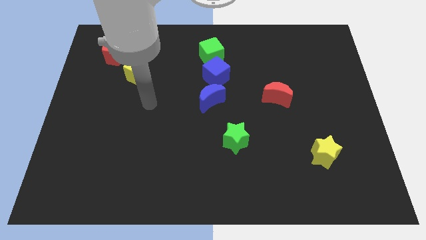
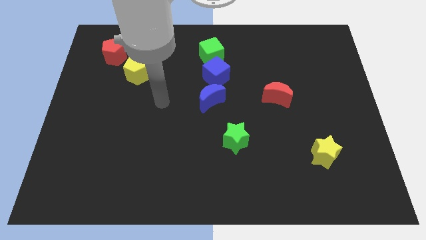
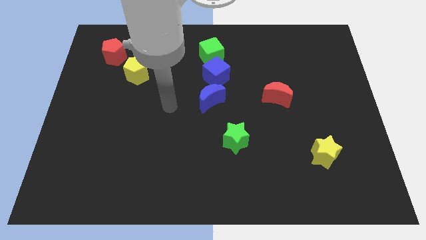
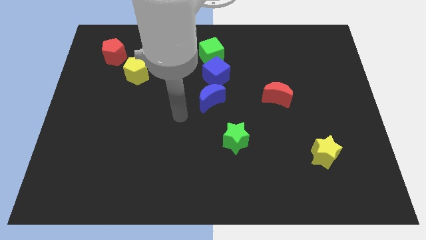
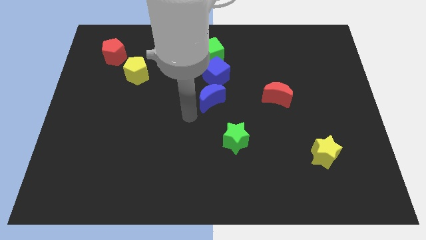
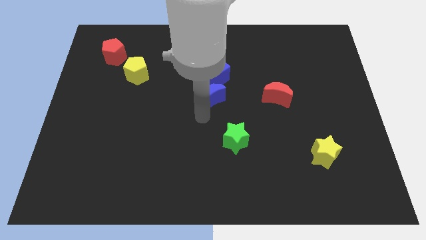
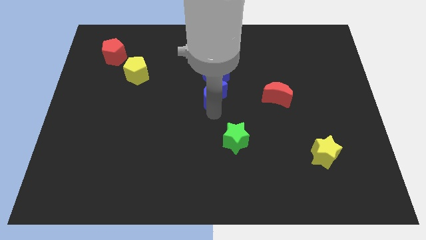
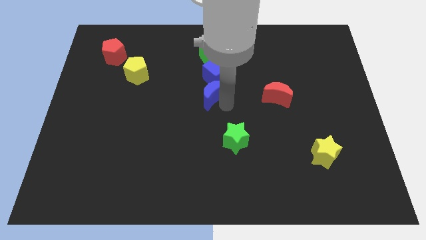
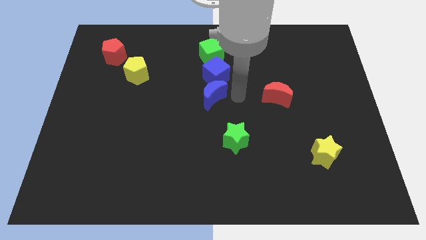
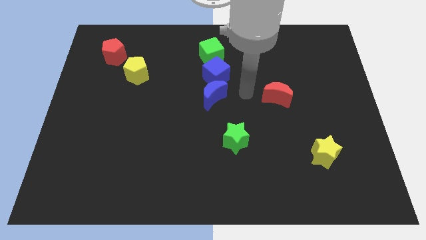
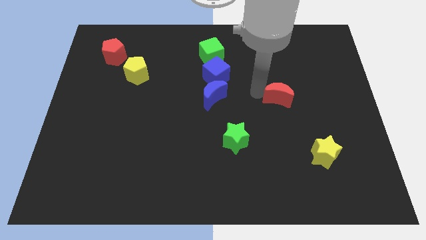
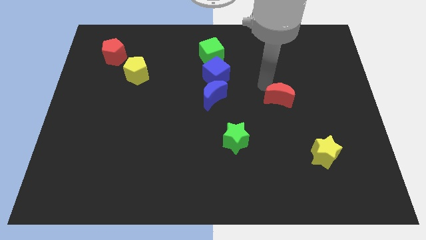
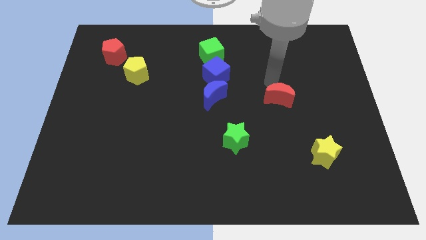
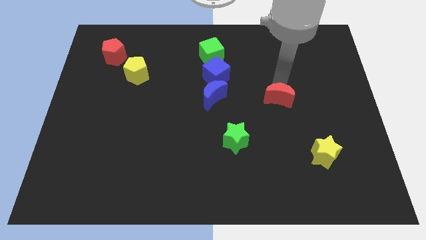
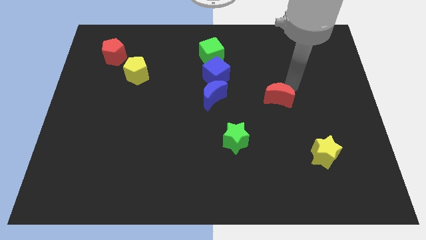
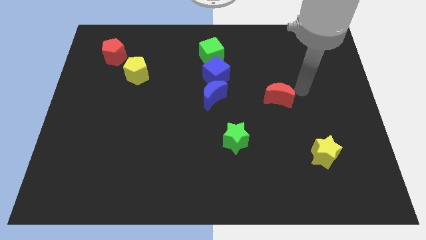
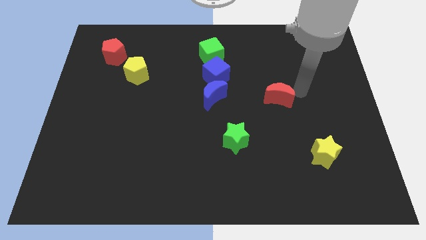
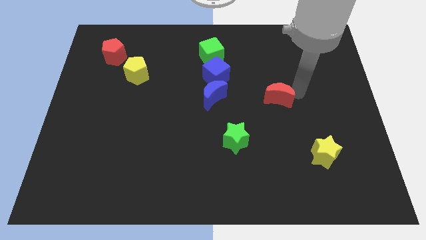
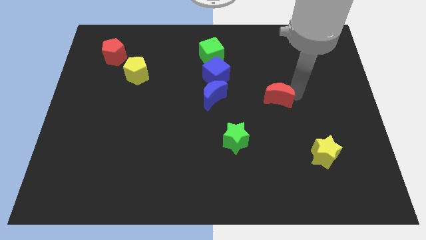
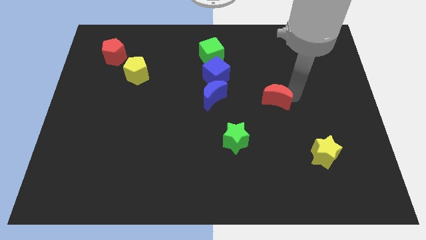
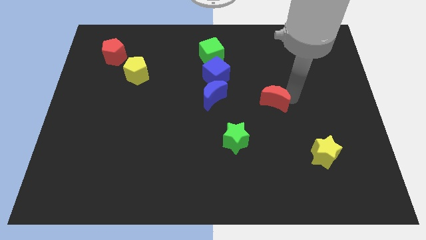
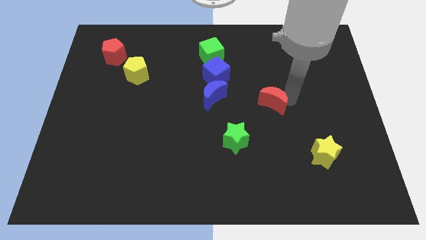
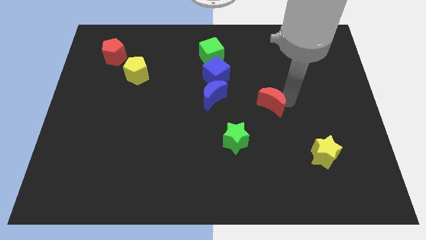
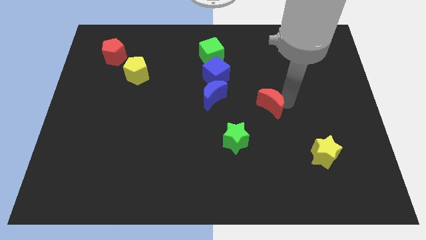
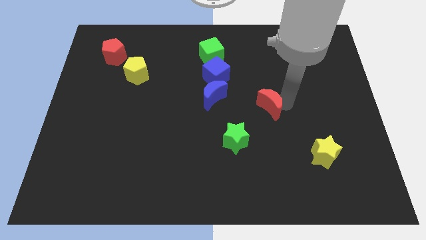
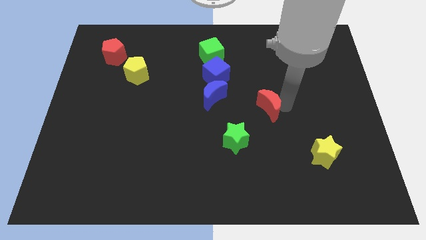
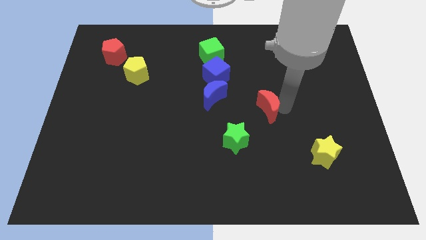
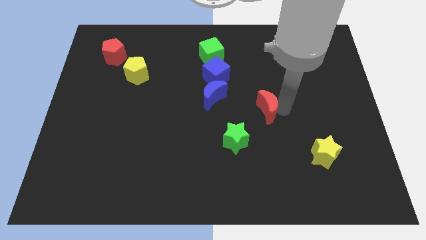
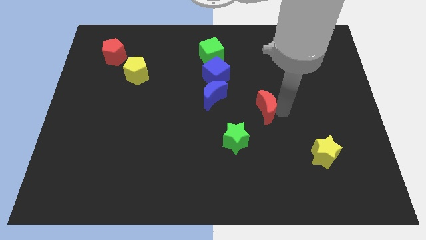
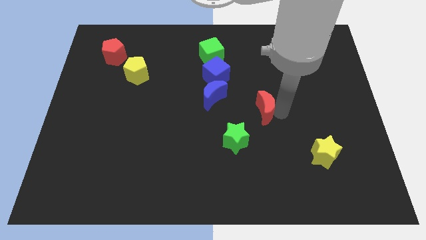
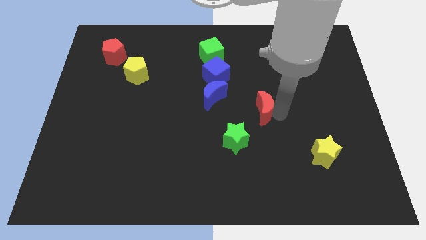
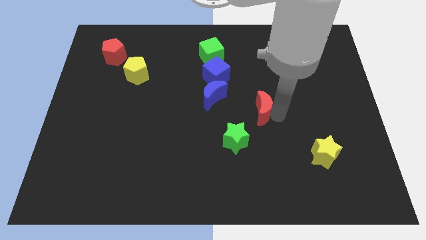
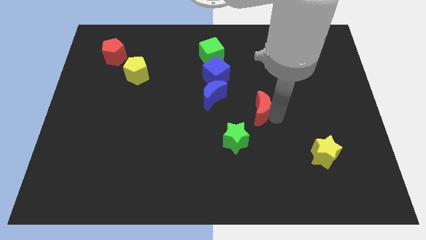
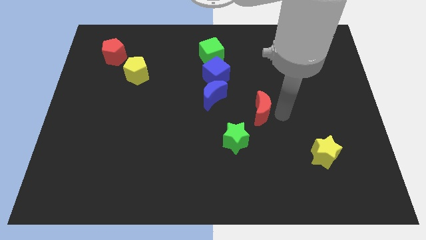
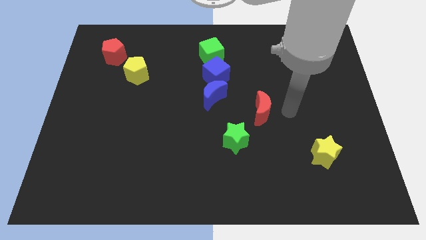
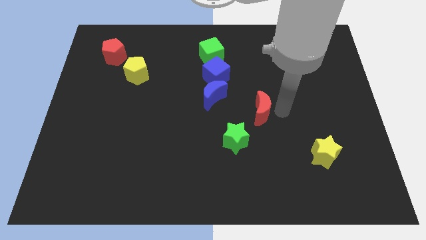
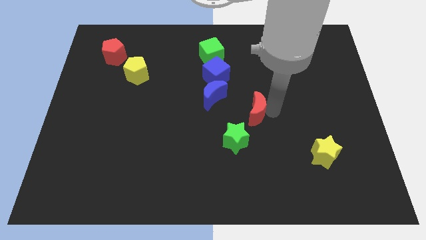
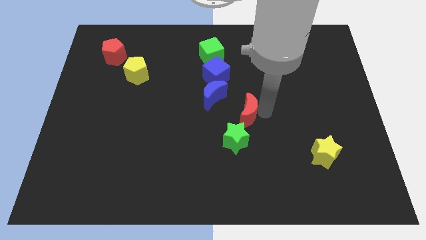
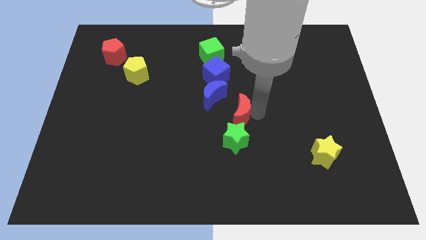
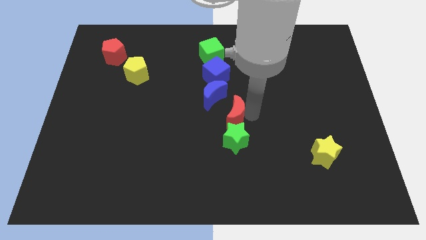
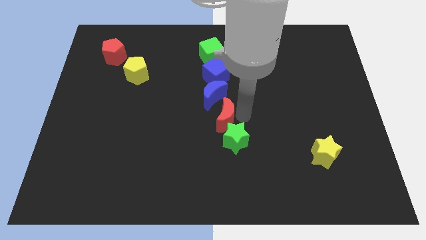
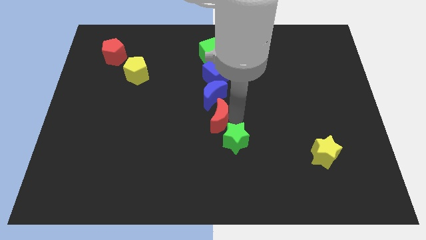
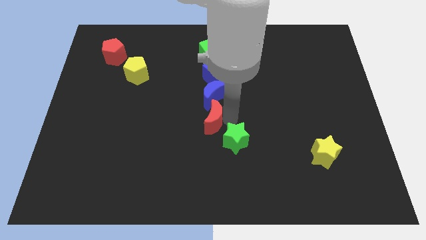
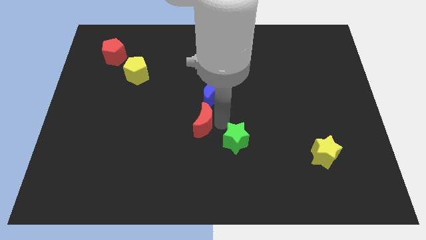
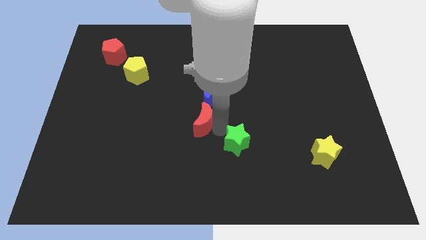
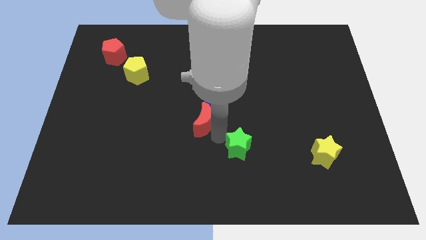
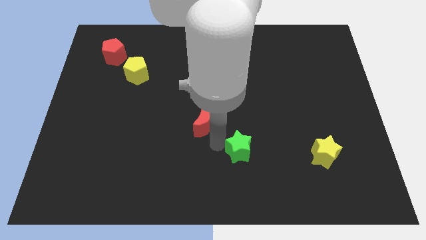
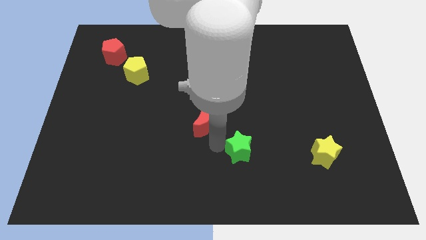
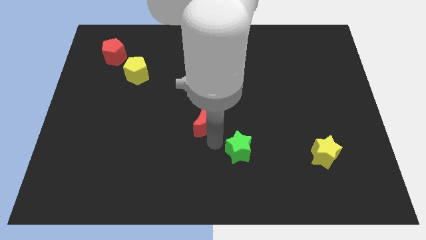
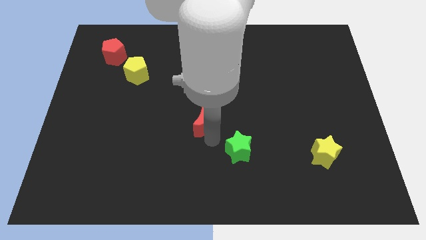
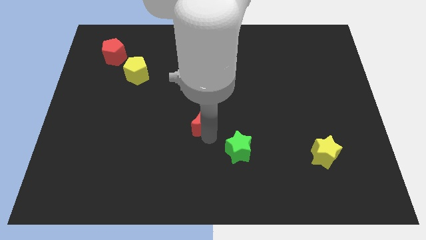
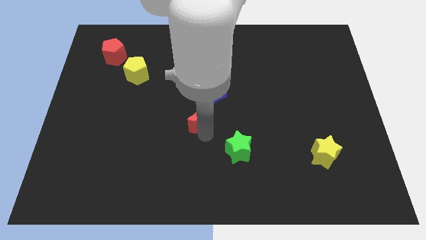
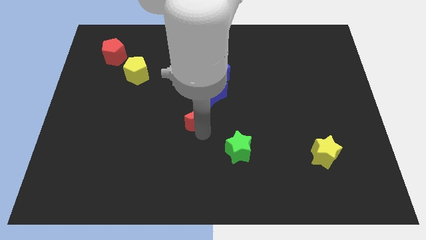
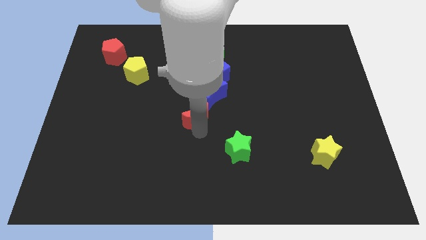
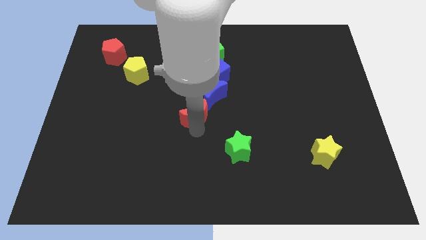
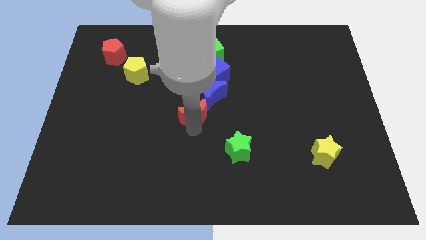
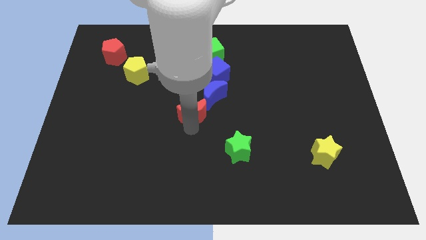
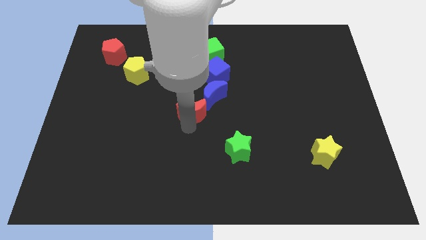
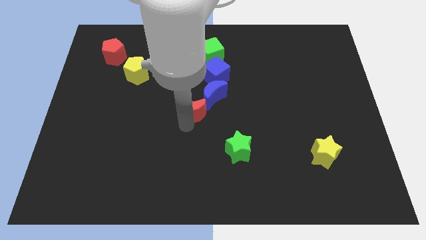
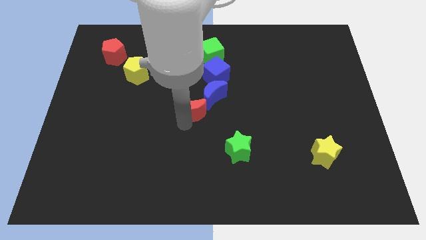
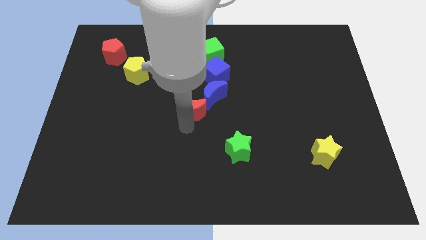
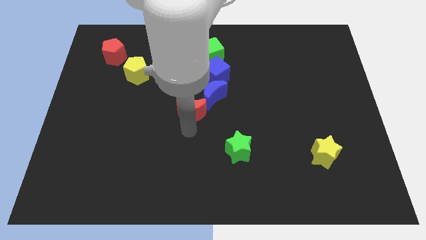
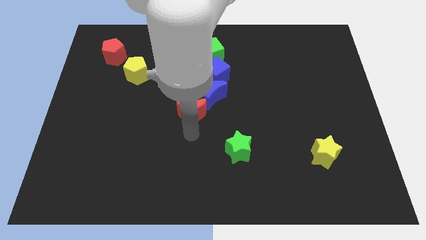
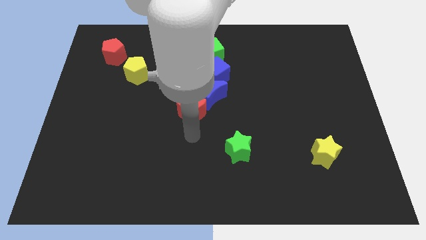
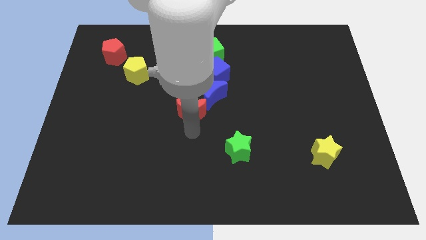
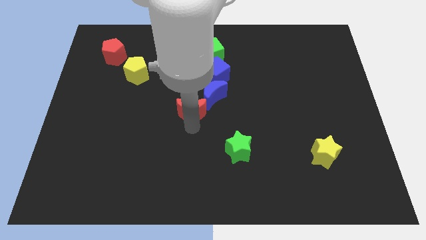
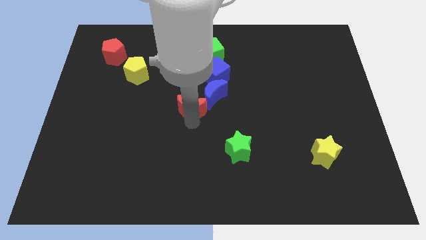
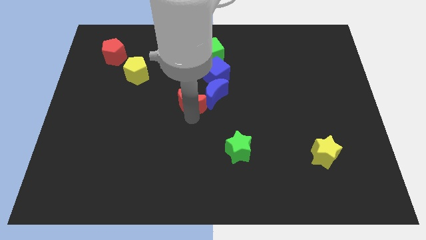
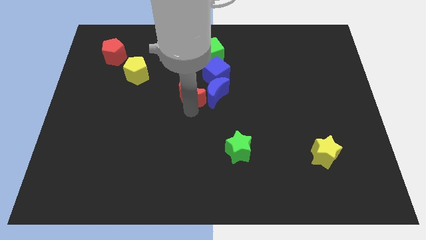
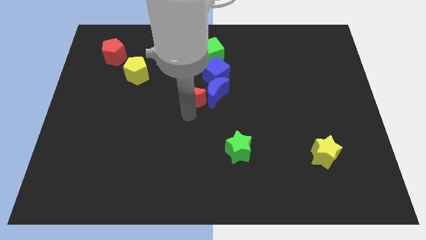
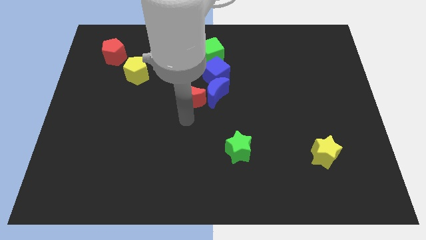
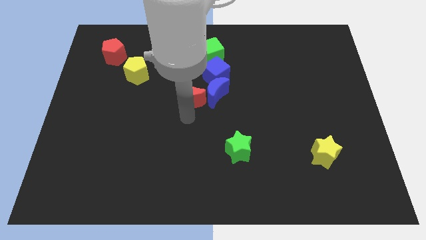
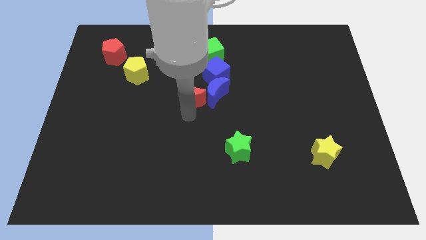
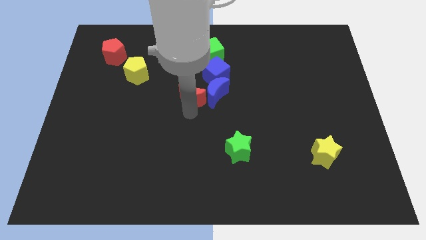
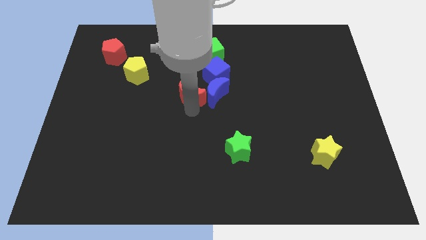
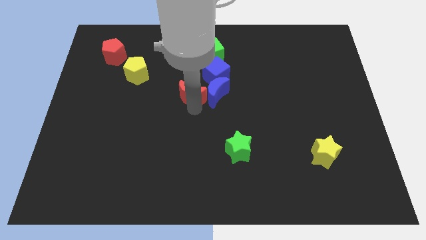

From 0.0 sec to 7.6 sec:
put the red moon to the top left side of the blue moon
